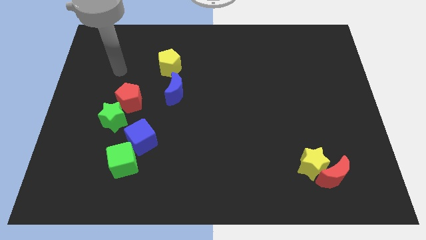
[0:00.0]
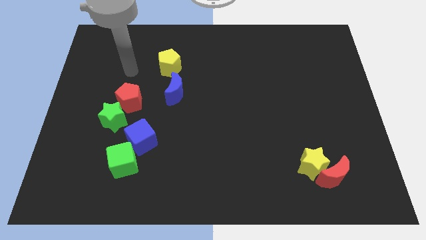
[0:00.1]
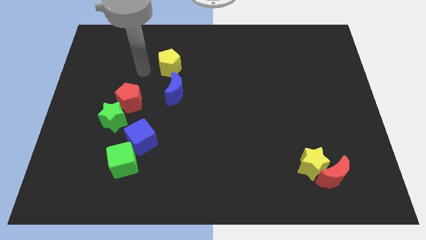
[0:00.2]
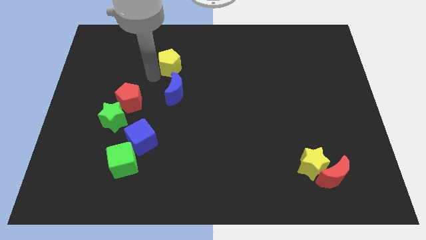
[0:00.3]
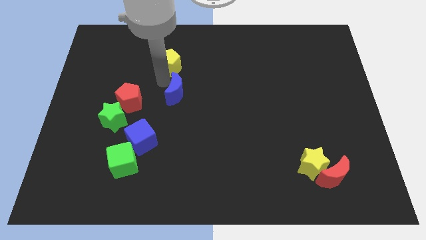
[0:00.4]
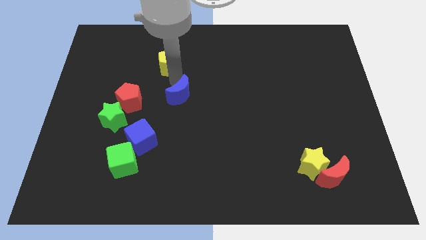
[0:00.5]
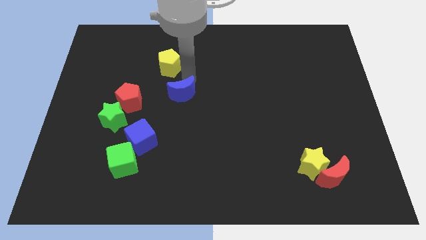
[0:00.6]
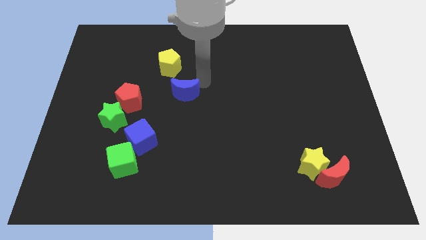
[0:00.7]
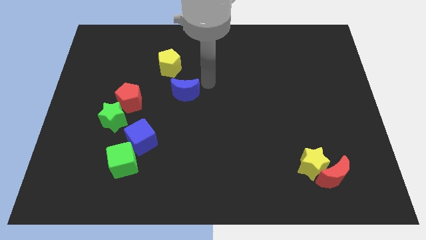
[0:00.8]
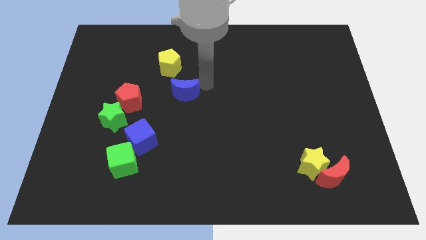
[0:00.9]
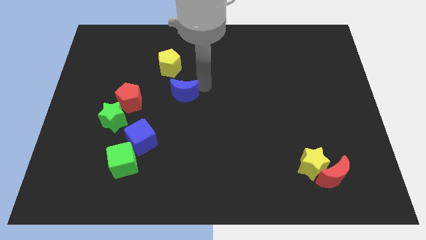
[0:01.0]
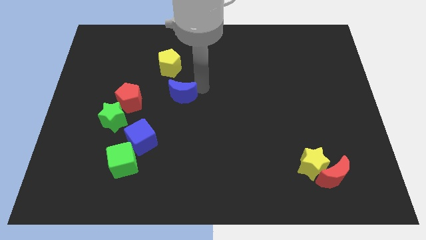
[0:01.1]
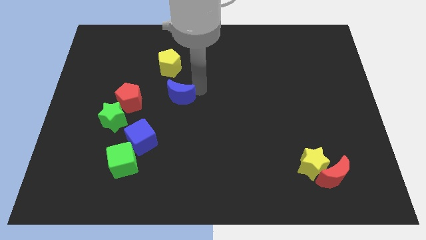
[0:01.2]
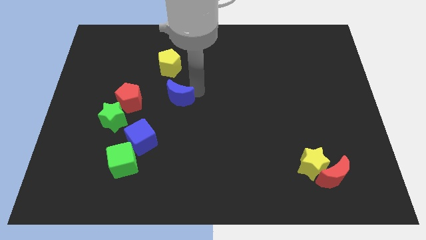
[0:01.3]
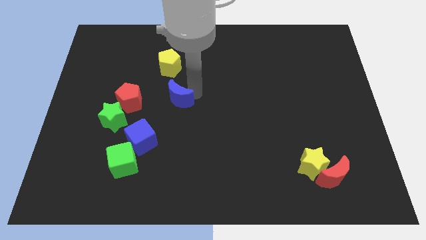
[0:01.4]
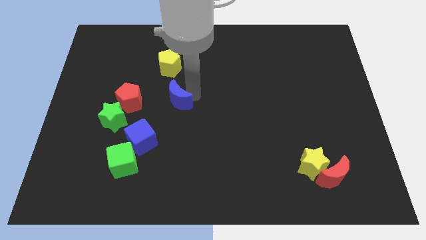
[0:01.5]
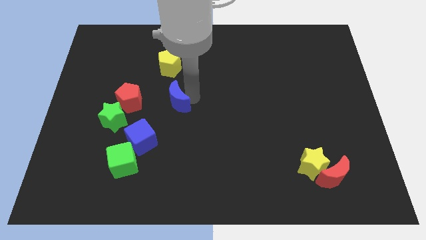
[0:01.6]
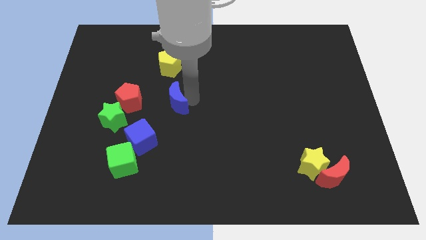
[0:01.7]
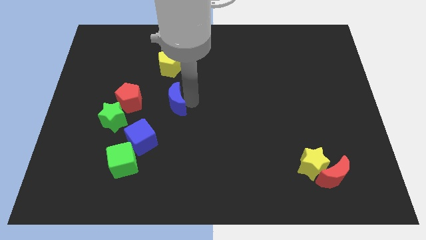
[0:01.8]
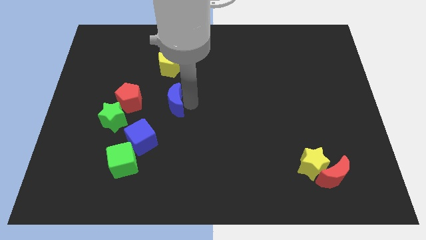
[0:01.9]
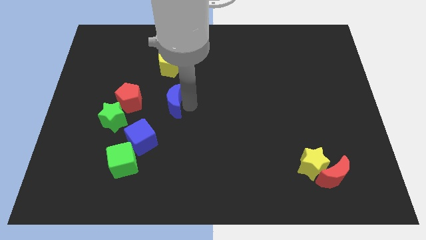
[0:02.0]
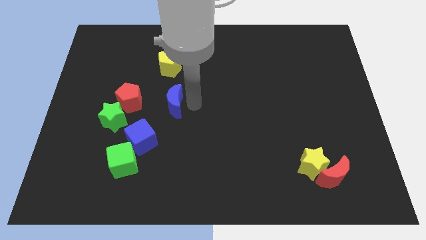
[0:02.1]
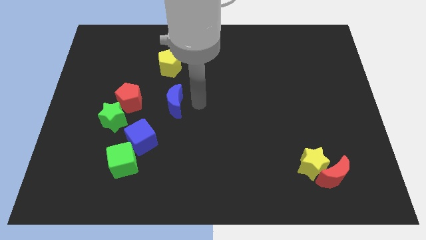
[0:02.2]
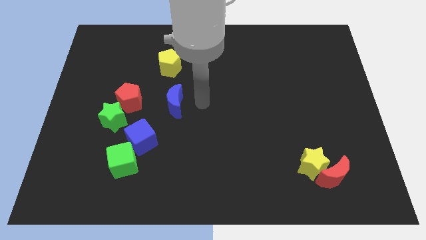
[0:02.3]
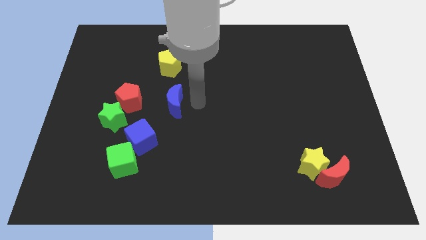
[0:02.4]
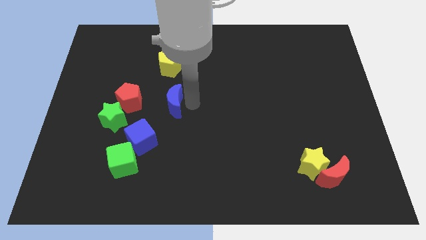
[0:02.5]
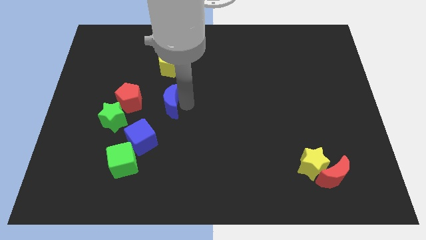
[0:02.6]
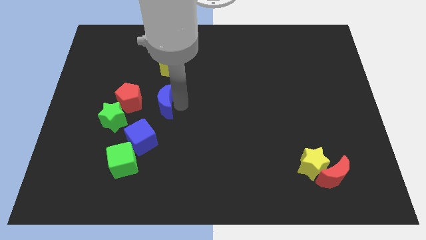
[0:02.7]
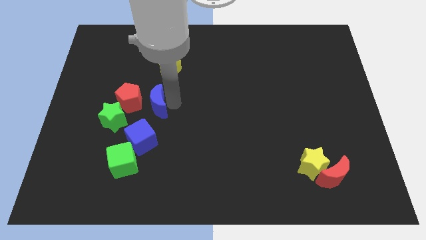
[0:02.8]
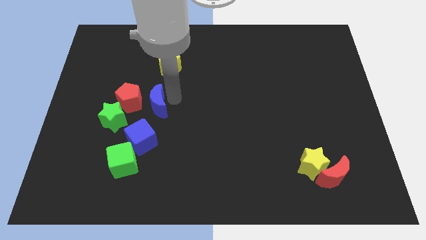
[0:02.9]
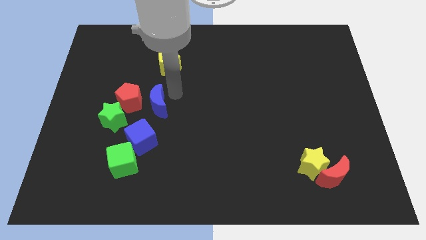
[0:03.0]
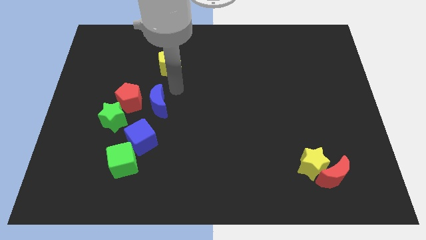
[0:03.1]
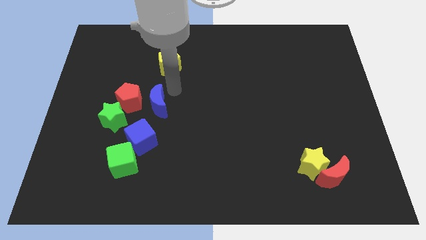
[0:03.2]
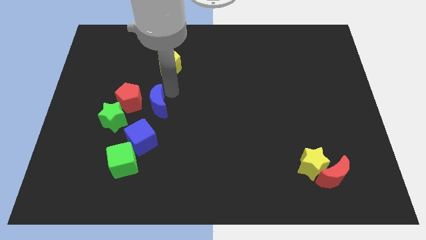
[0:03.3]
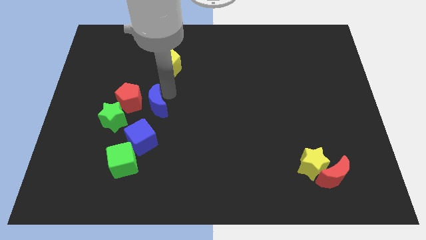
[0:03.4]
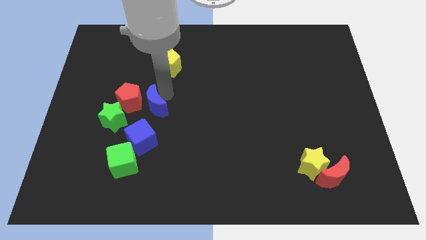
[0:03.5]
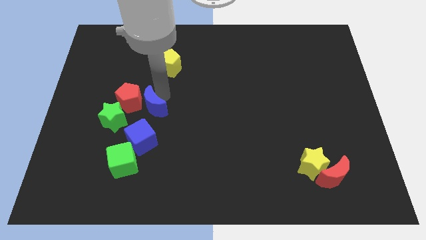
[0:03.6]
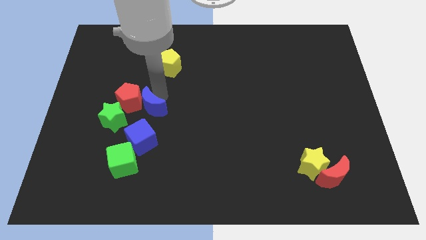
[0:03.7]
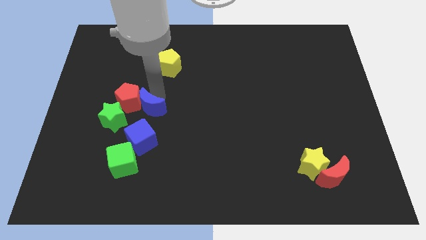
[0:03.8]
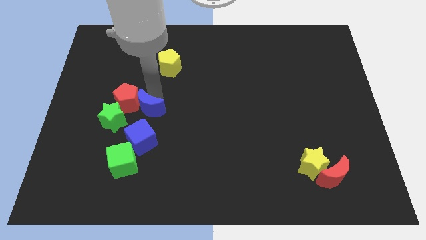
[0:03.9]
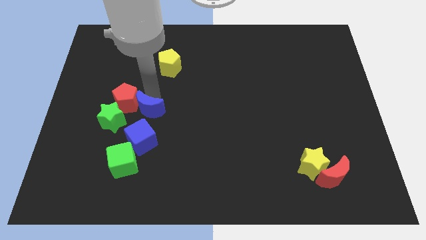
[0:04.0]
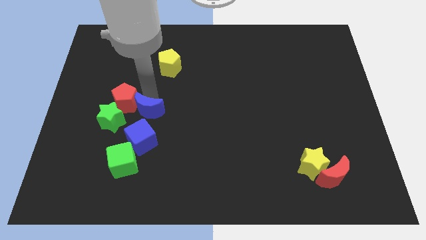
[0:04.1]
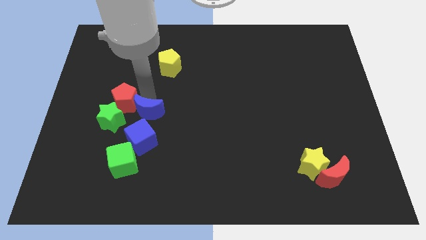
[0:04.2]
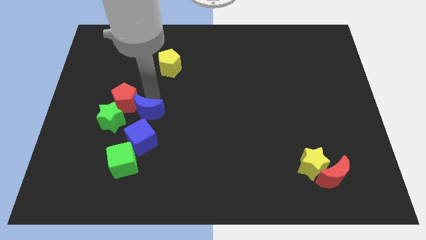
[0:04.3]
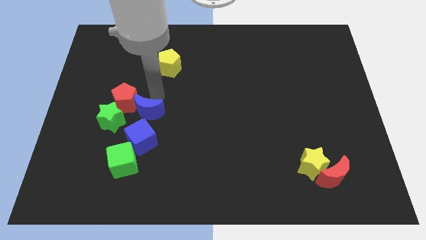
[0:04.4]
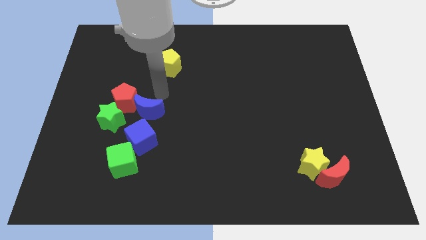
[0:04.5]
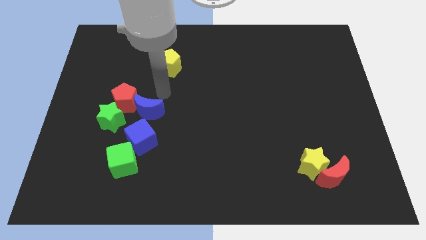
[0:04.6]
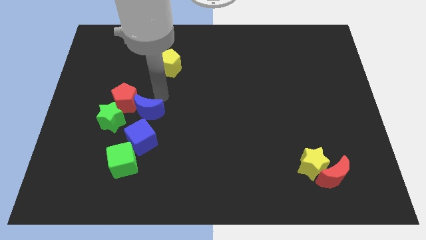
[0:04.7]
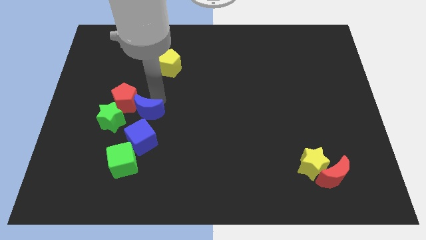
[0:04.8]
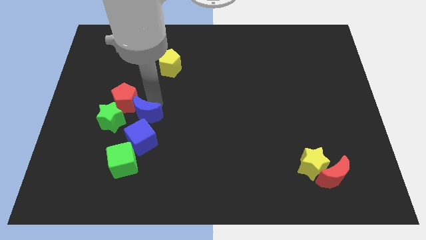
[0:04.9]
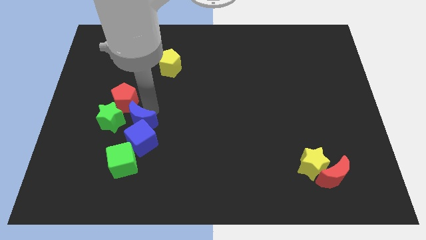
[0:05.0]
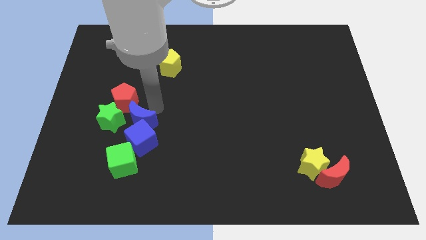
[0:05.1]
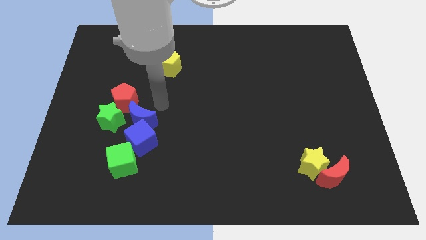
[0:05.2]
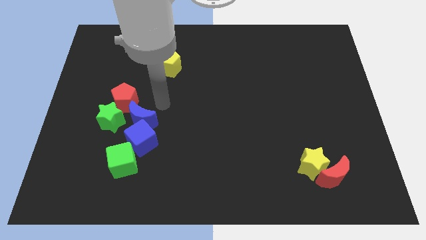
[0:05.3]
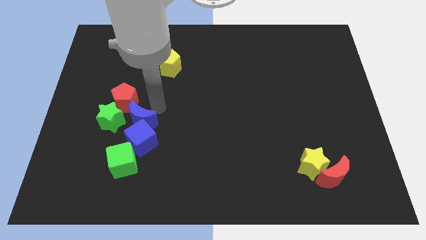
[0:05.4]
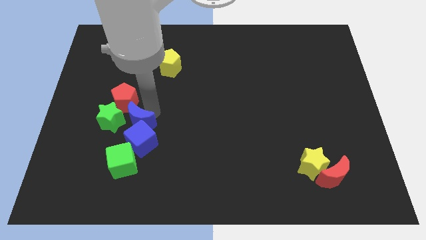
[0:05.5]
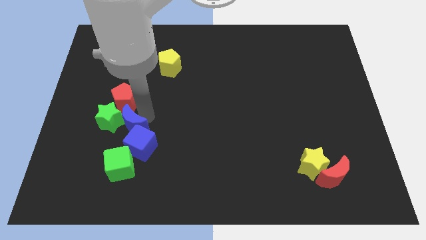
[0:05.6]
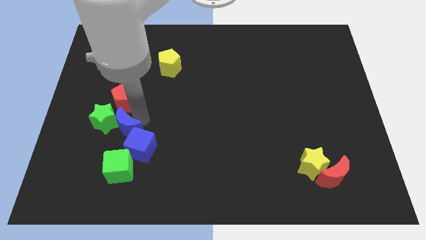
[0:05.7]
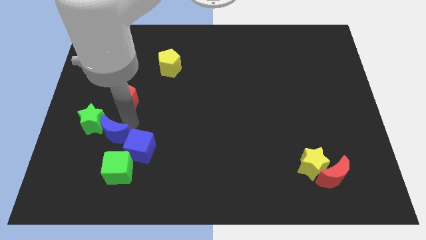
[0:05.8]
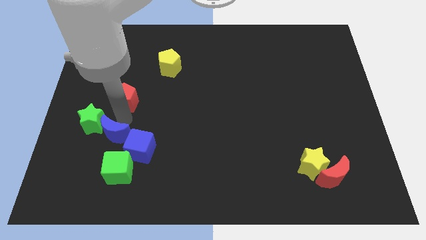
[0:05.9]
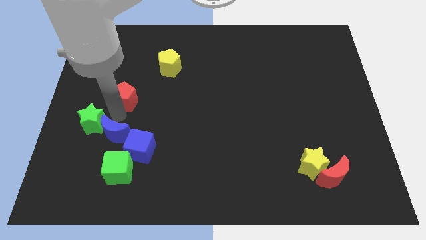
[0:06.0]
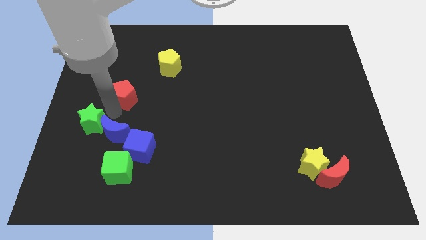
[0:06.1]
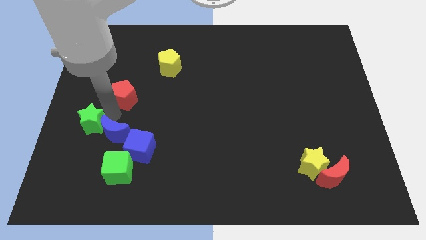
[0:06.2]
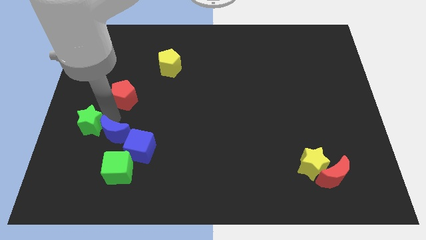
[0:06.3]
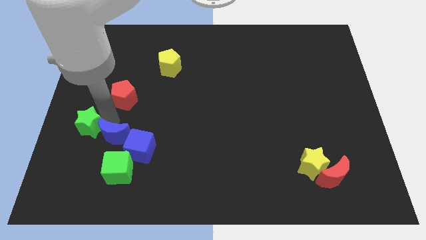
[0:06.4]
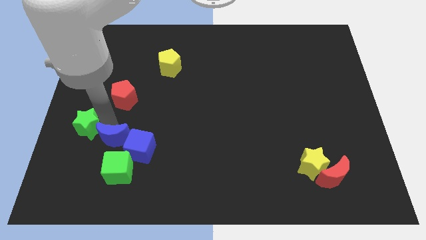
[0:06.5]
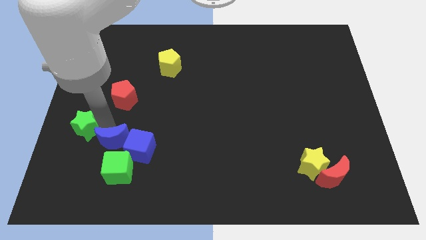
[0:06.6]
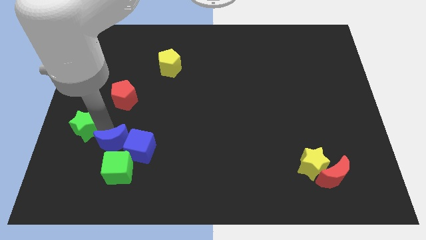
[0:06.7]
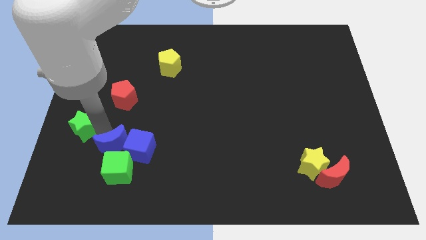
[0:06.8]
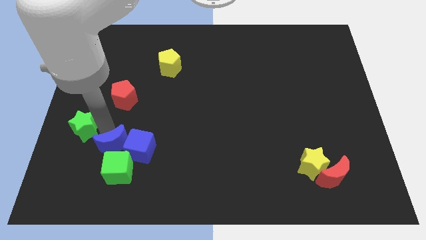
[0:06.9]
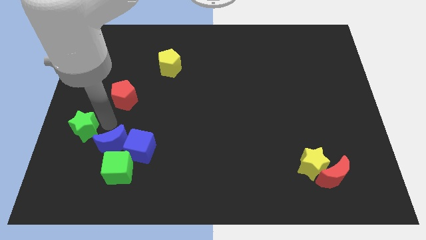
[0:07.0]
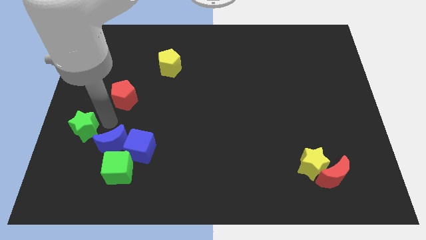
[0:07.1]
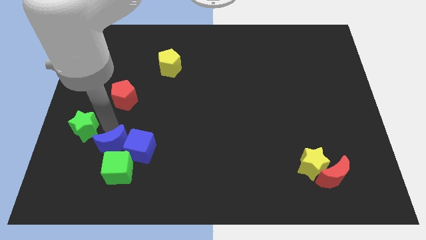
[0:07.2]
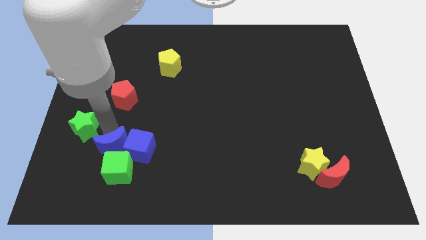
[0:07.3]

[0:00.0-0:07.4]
put the blue moon towards the green cube

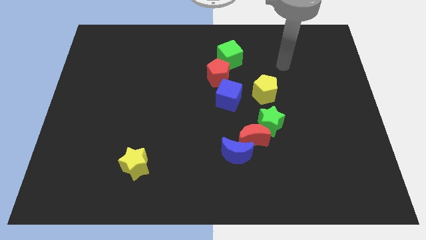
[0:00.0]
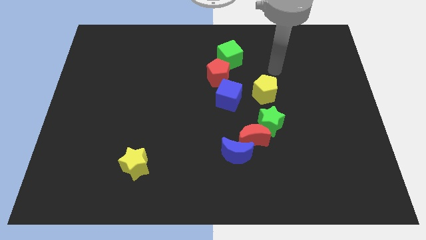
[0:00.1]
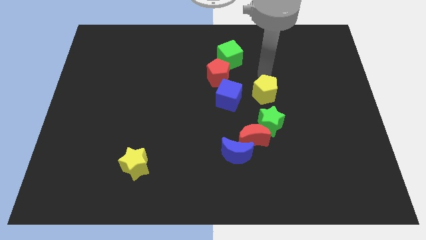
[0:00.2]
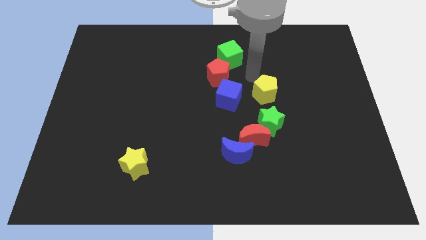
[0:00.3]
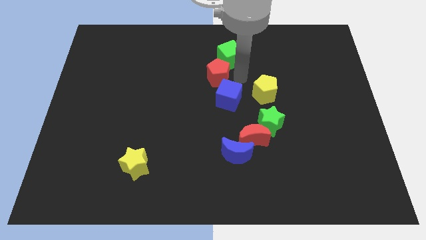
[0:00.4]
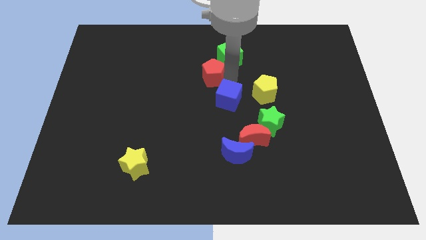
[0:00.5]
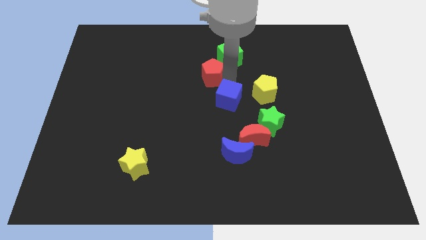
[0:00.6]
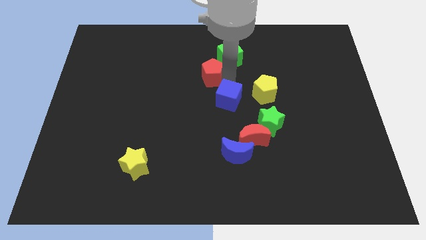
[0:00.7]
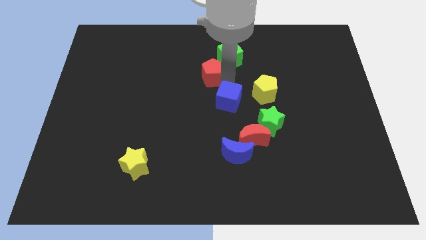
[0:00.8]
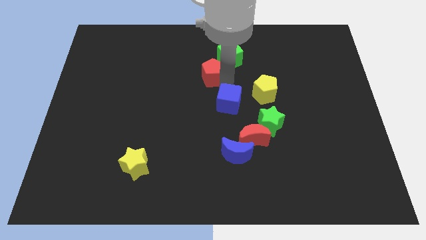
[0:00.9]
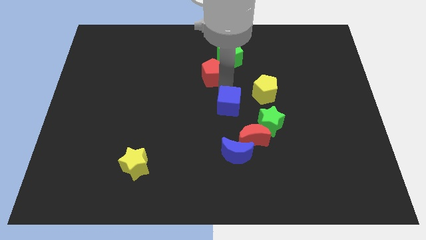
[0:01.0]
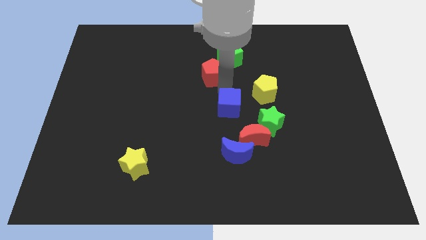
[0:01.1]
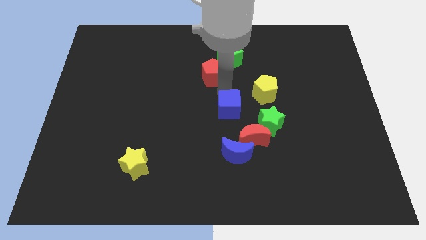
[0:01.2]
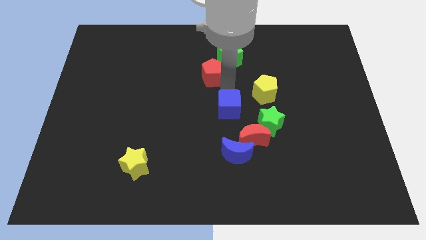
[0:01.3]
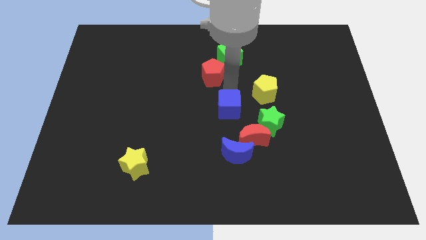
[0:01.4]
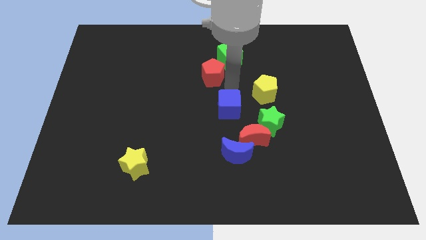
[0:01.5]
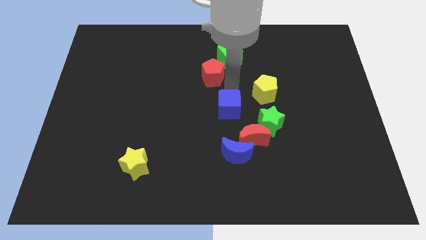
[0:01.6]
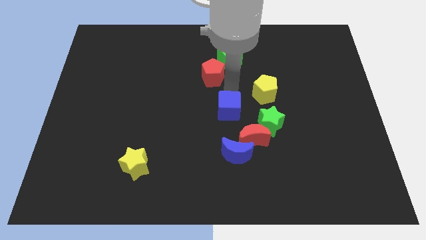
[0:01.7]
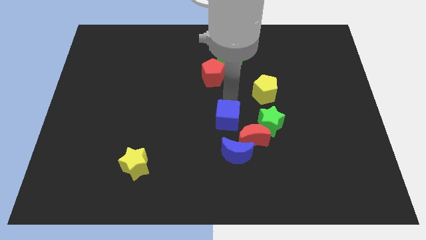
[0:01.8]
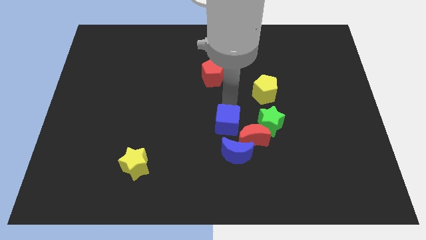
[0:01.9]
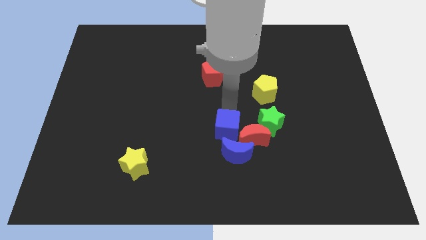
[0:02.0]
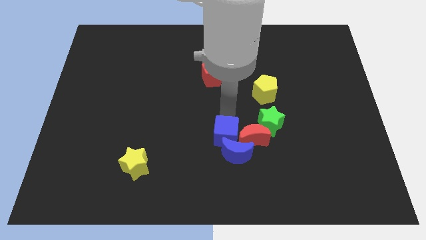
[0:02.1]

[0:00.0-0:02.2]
move the blue cube to the blue moon
